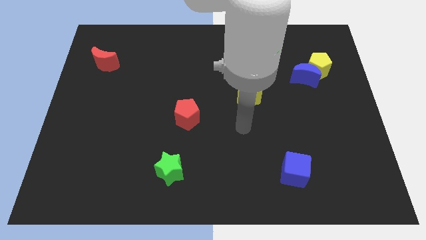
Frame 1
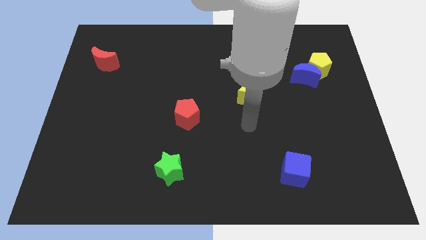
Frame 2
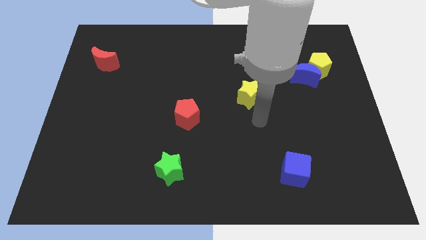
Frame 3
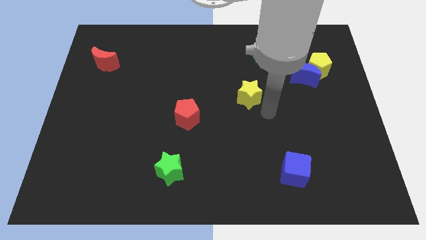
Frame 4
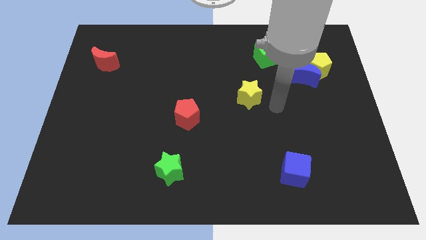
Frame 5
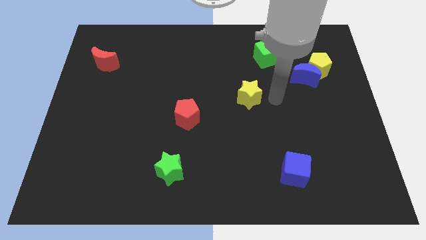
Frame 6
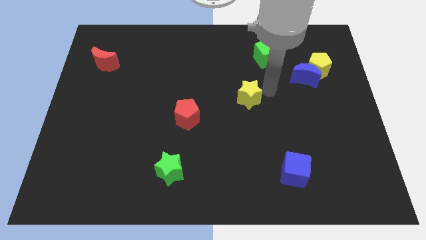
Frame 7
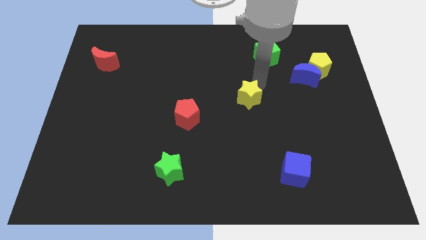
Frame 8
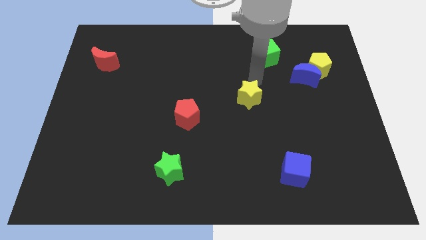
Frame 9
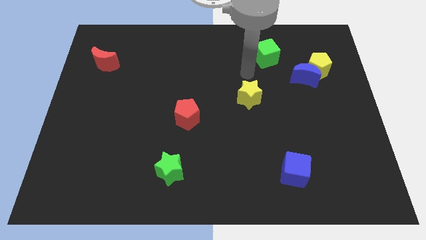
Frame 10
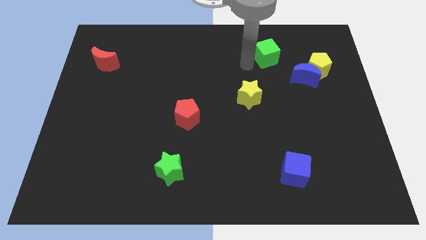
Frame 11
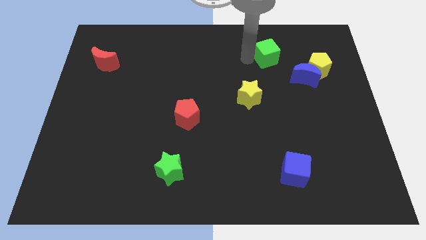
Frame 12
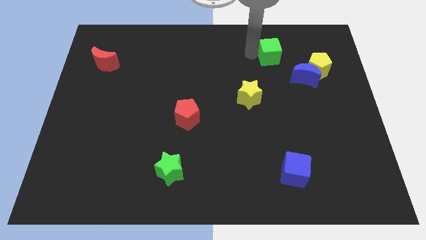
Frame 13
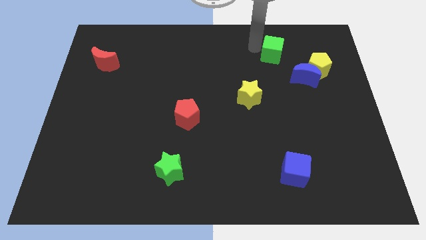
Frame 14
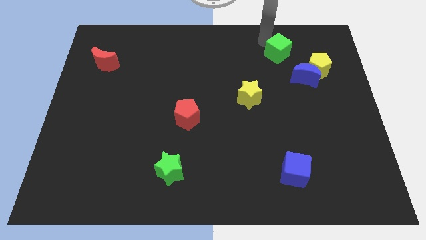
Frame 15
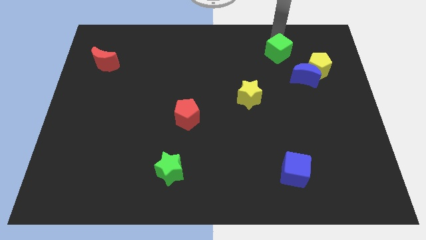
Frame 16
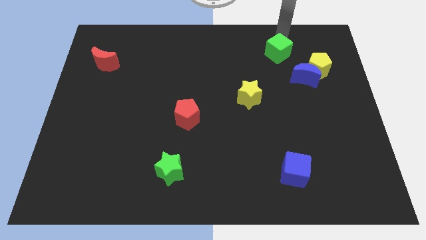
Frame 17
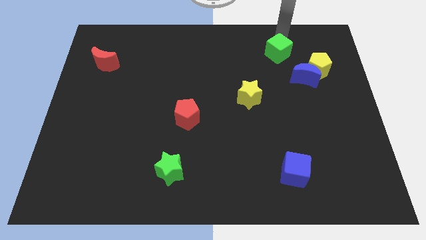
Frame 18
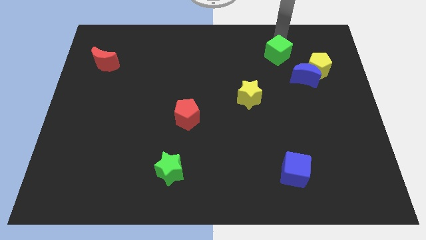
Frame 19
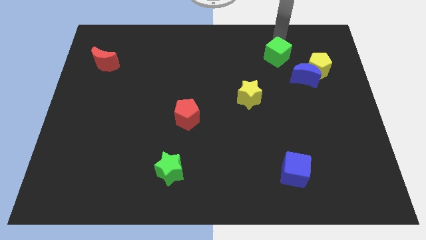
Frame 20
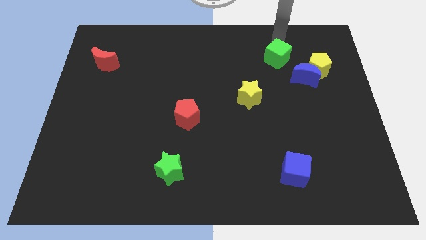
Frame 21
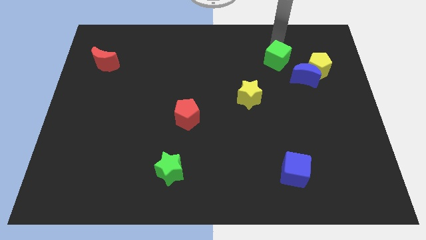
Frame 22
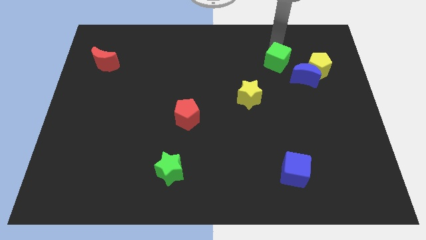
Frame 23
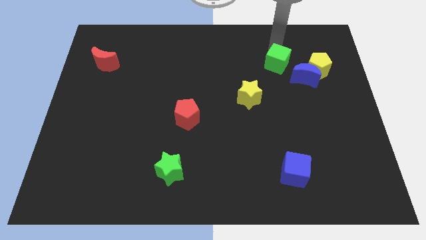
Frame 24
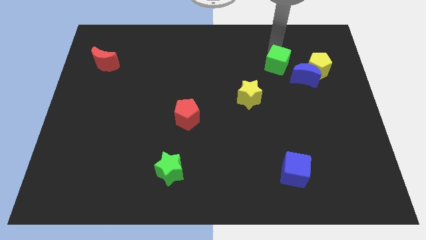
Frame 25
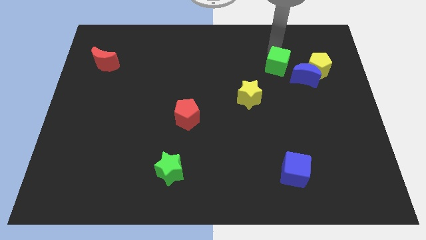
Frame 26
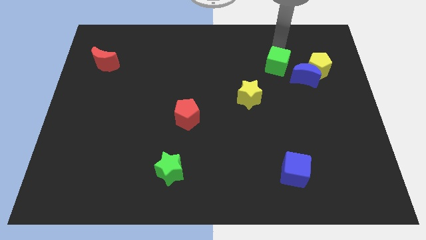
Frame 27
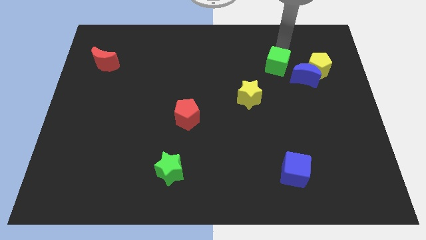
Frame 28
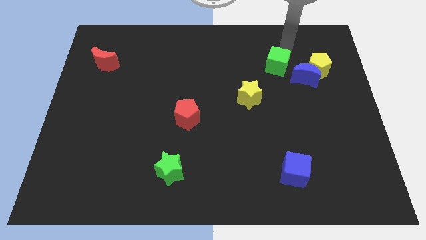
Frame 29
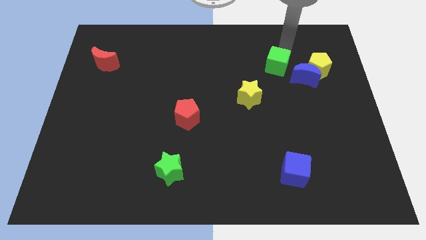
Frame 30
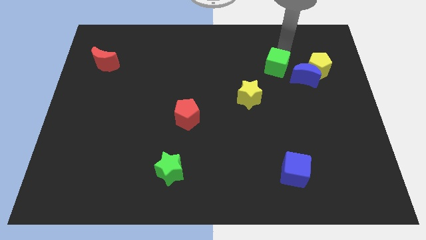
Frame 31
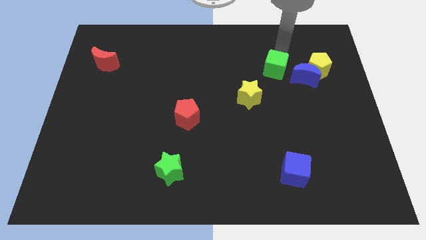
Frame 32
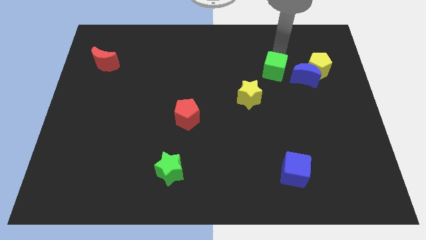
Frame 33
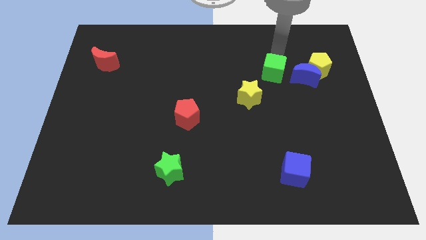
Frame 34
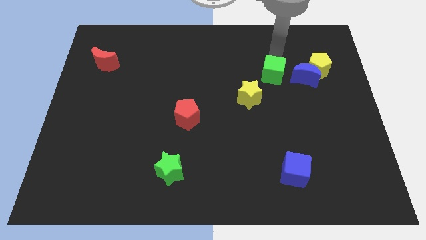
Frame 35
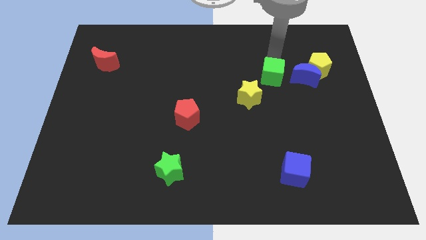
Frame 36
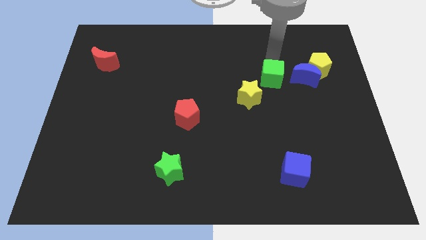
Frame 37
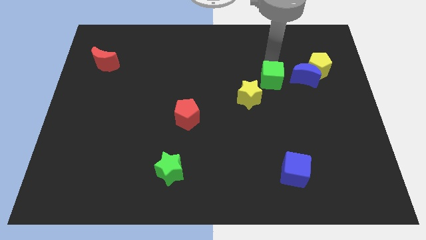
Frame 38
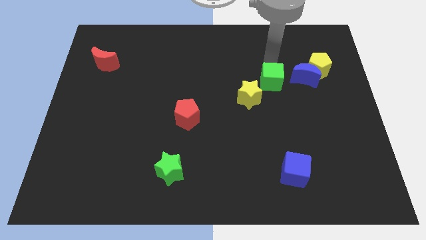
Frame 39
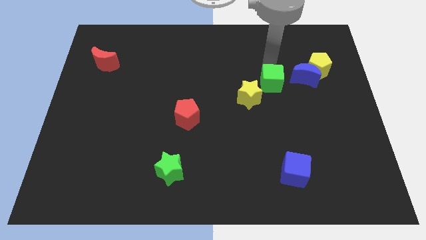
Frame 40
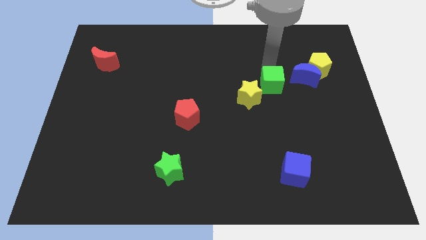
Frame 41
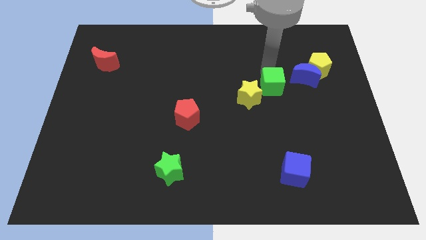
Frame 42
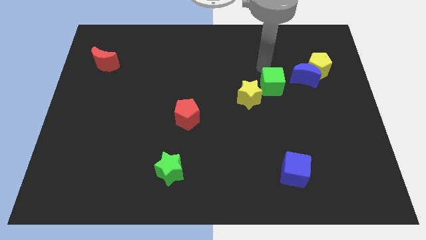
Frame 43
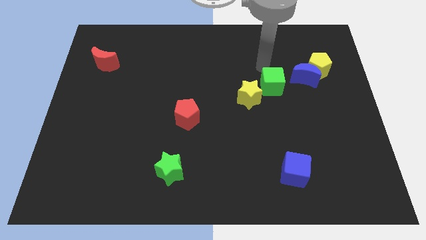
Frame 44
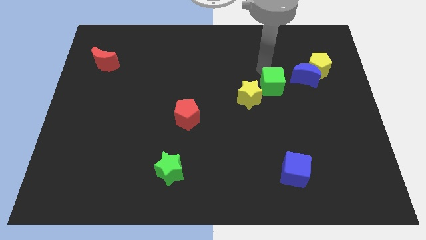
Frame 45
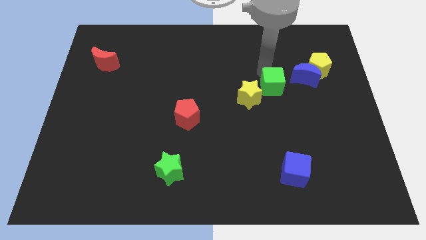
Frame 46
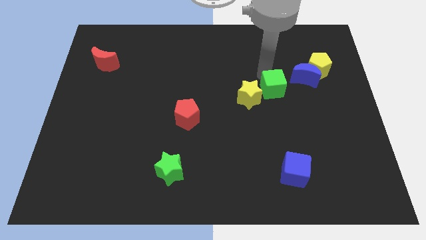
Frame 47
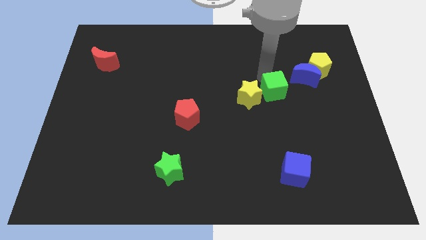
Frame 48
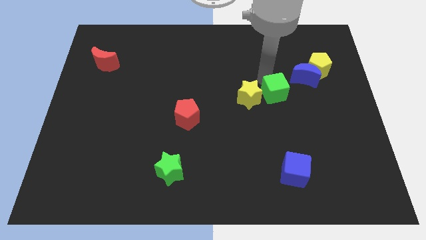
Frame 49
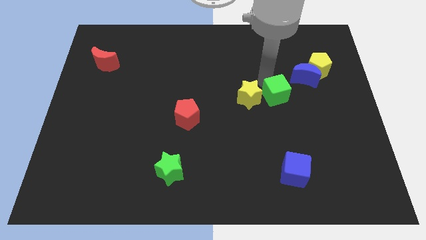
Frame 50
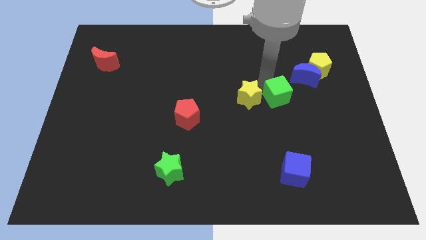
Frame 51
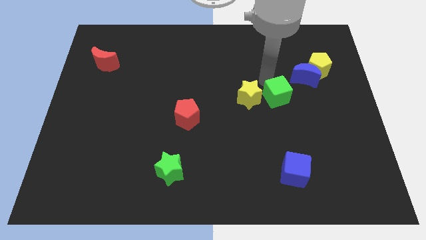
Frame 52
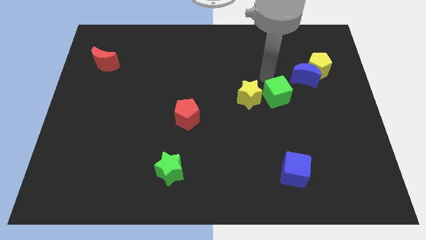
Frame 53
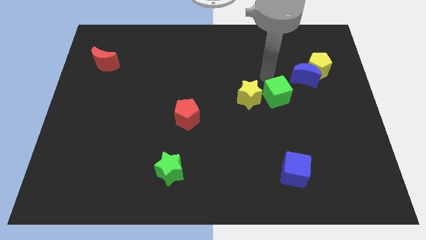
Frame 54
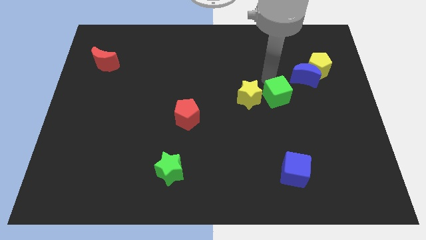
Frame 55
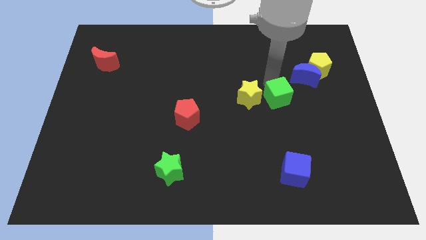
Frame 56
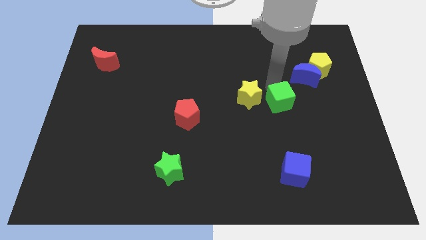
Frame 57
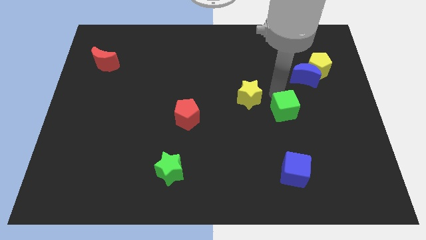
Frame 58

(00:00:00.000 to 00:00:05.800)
move the green cube to the top of the blue cube

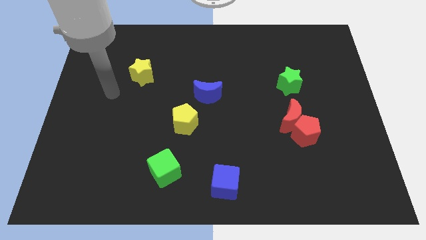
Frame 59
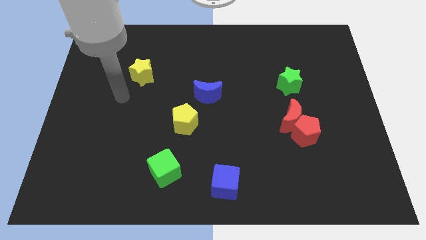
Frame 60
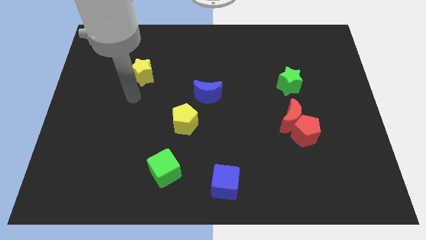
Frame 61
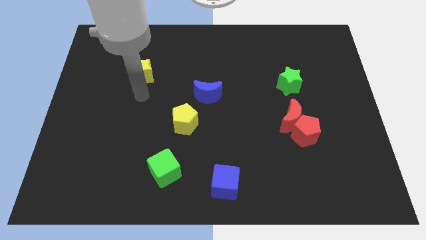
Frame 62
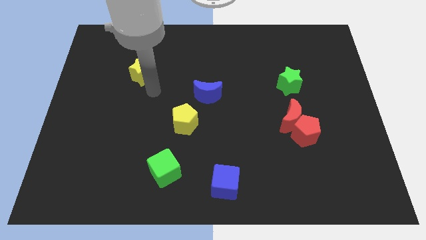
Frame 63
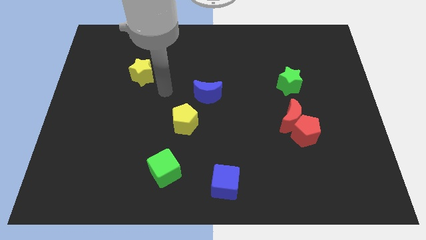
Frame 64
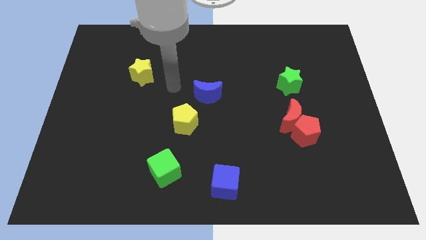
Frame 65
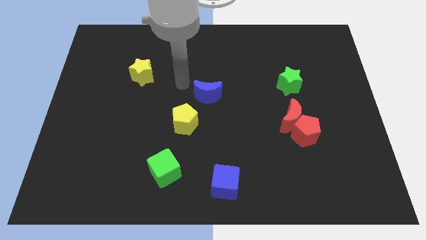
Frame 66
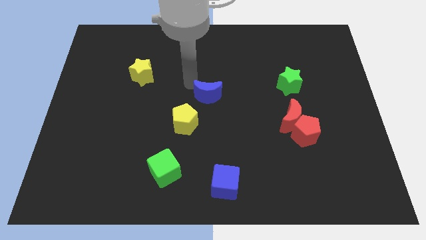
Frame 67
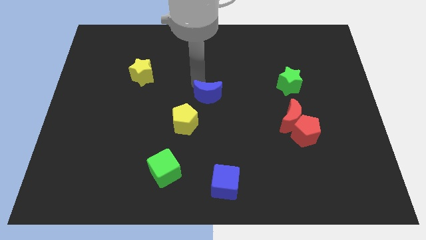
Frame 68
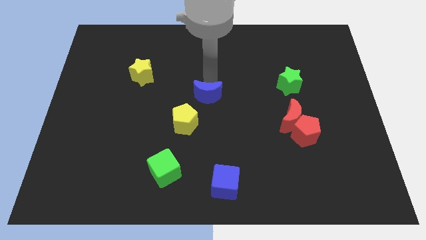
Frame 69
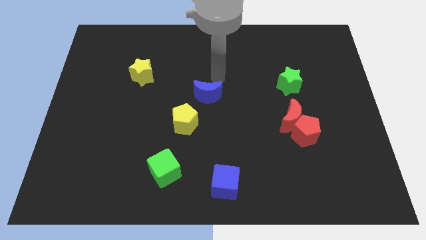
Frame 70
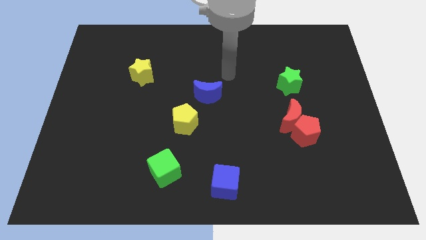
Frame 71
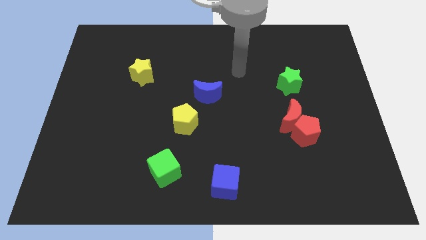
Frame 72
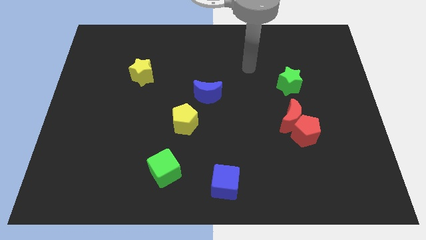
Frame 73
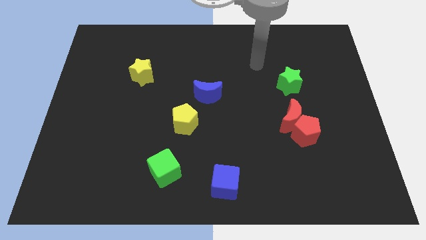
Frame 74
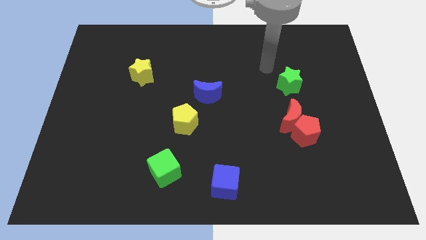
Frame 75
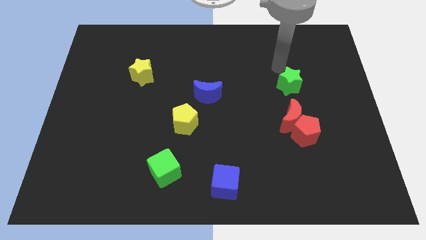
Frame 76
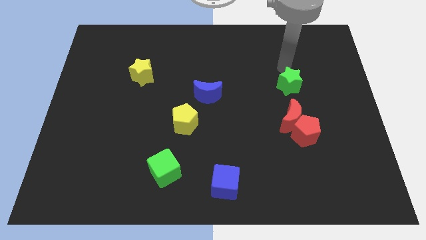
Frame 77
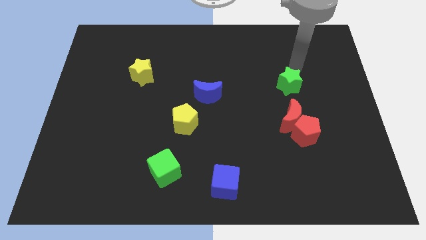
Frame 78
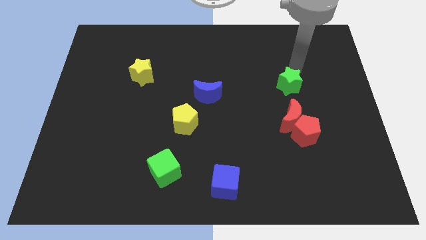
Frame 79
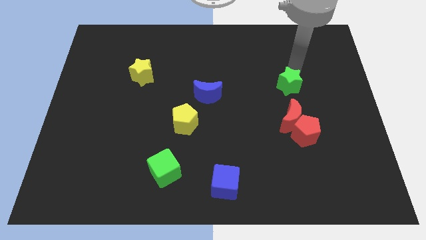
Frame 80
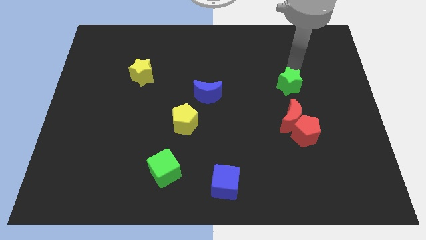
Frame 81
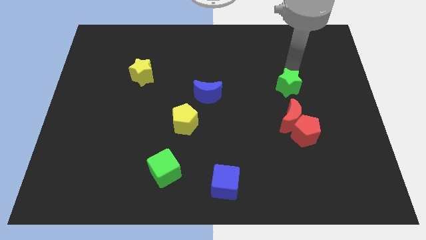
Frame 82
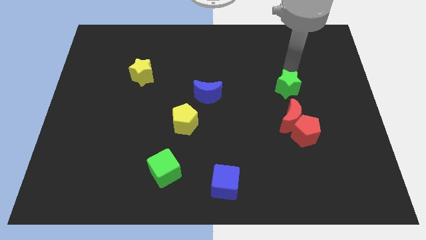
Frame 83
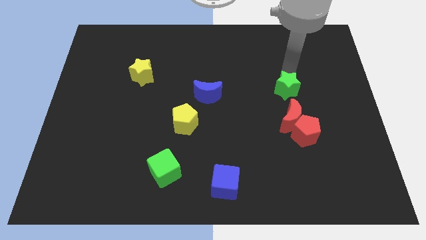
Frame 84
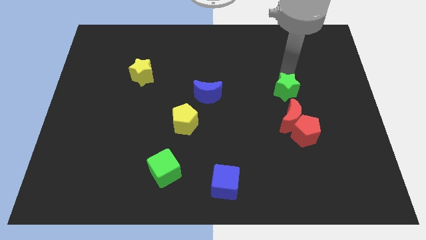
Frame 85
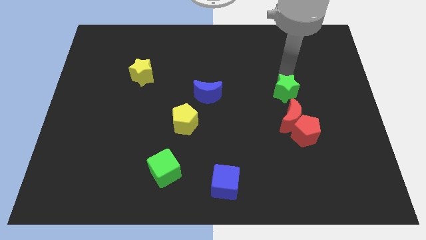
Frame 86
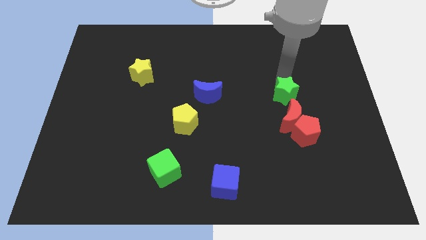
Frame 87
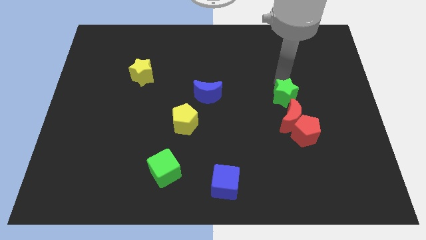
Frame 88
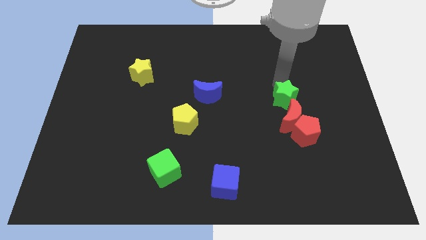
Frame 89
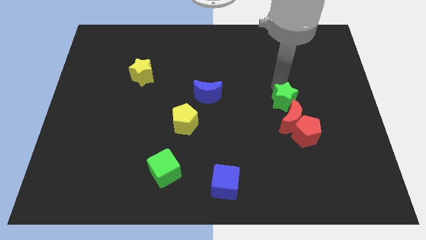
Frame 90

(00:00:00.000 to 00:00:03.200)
slide the green star diagonally up and to the left of the red pentagon
